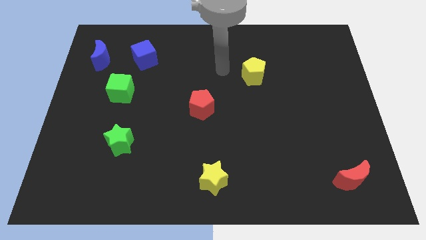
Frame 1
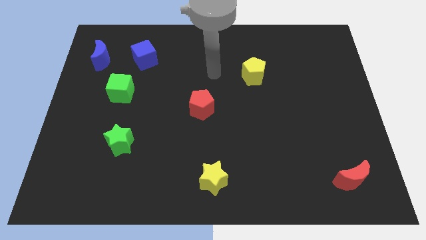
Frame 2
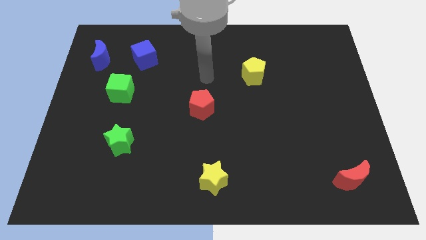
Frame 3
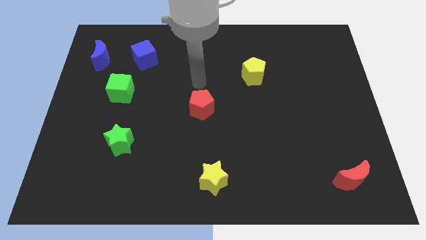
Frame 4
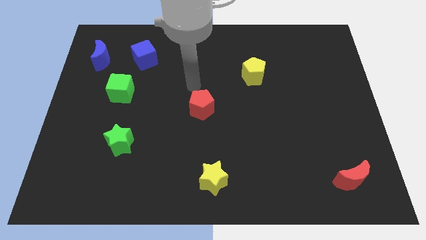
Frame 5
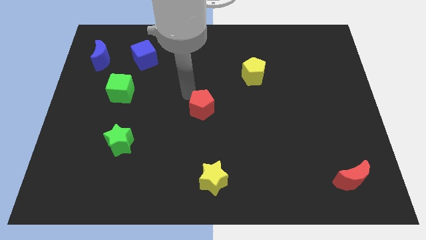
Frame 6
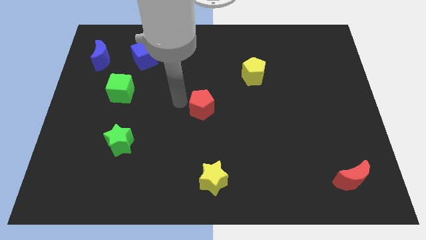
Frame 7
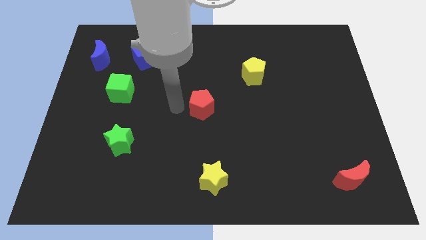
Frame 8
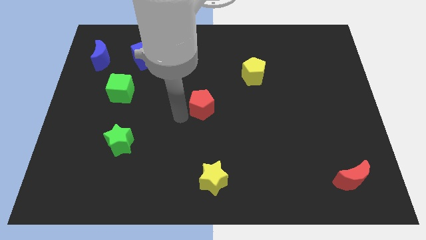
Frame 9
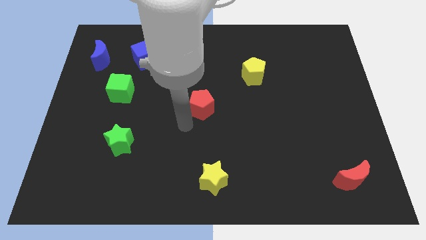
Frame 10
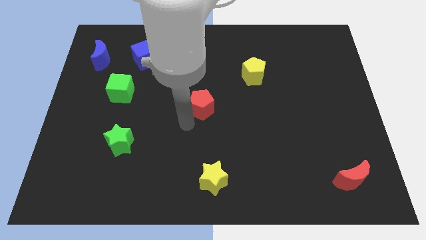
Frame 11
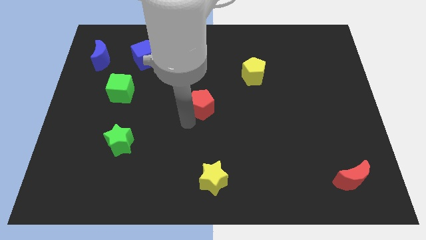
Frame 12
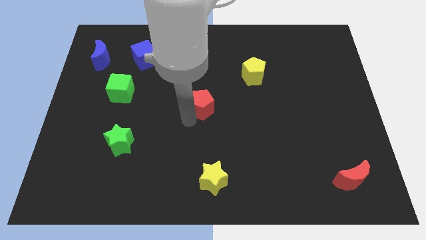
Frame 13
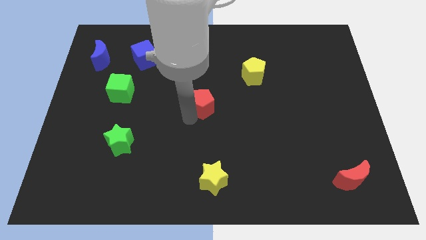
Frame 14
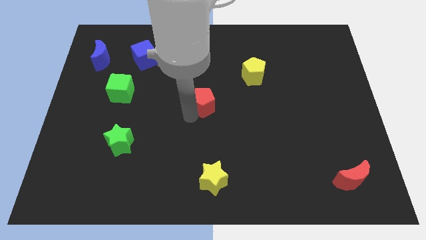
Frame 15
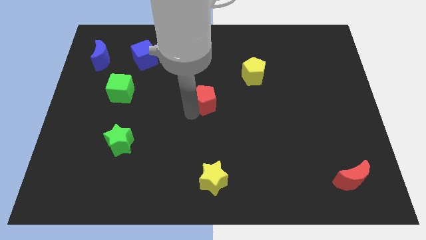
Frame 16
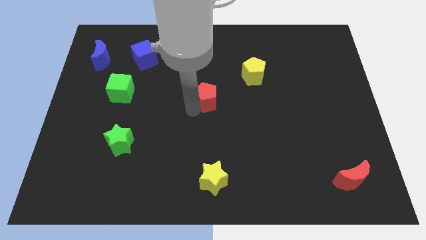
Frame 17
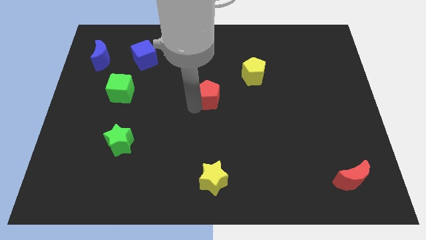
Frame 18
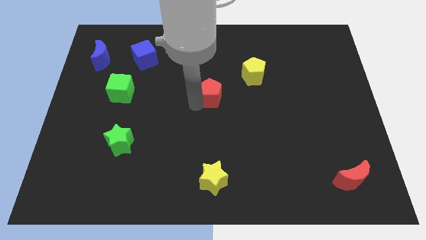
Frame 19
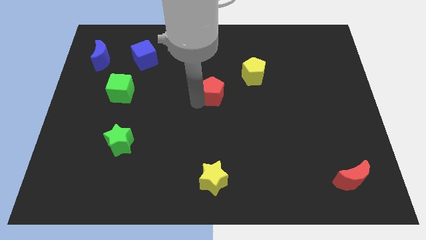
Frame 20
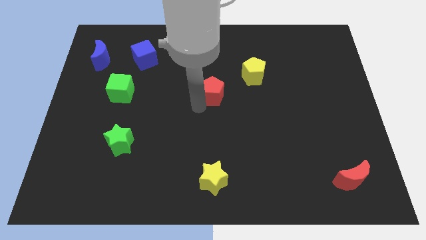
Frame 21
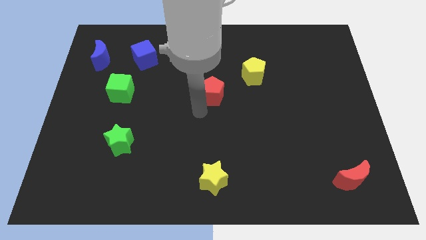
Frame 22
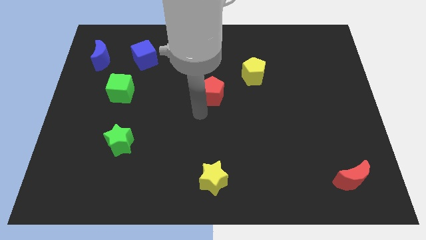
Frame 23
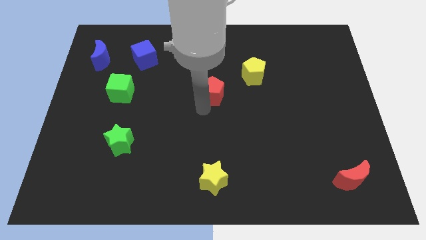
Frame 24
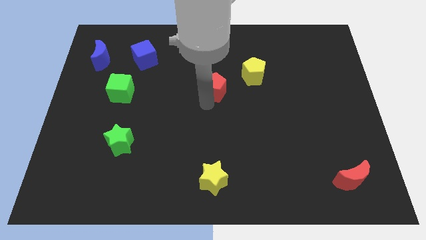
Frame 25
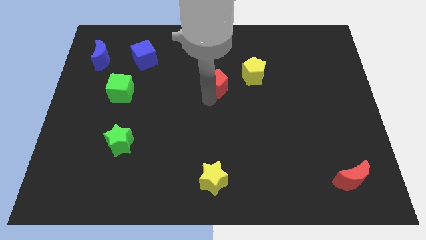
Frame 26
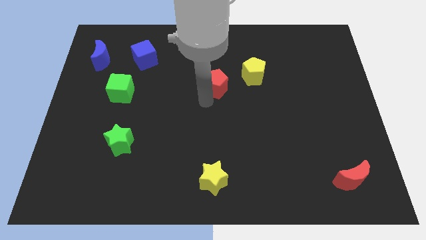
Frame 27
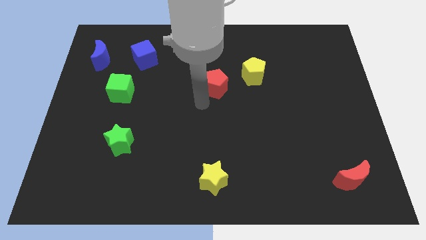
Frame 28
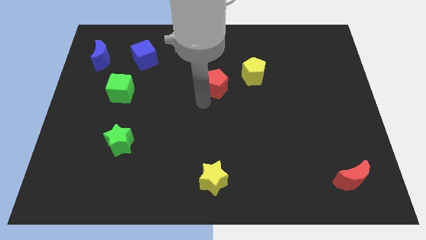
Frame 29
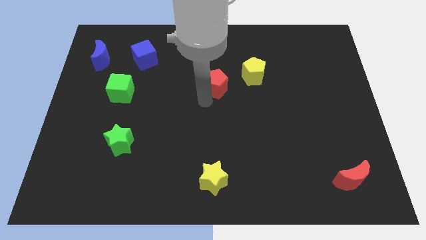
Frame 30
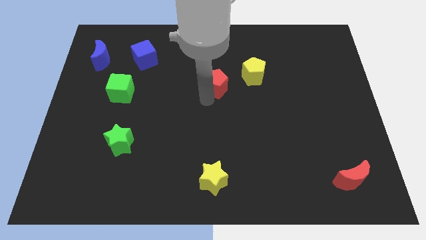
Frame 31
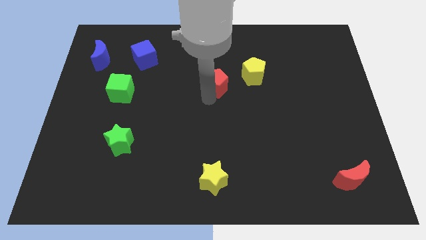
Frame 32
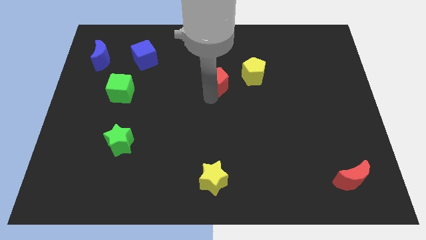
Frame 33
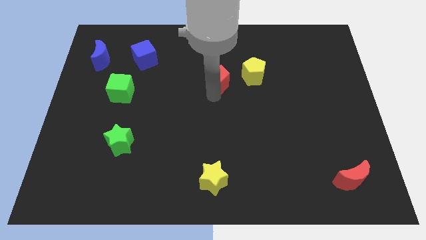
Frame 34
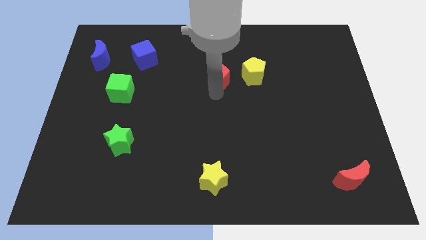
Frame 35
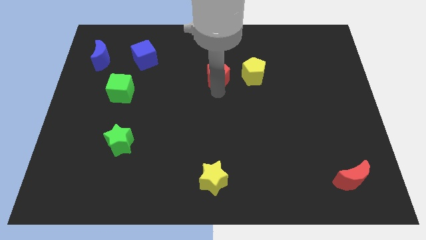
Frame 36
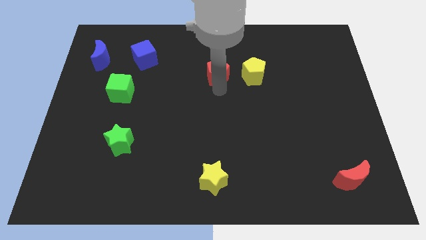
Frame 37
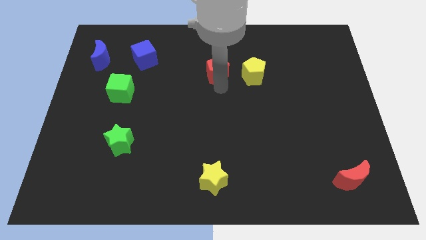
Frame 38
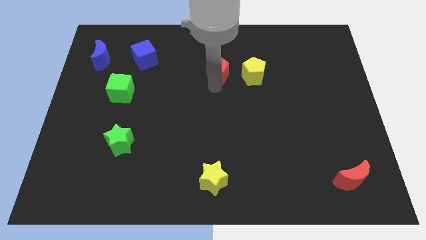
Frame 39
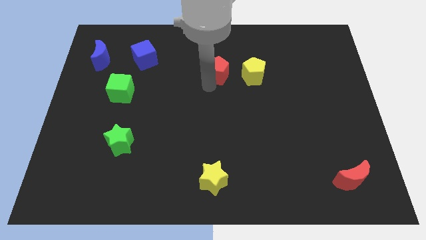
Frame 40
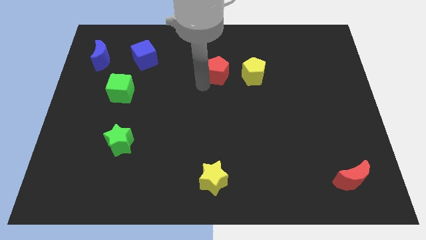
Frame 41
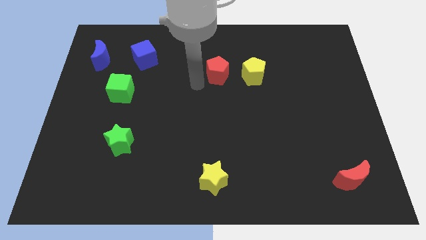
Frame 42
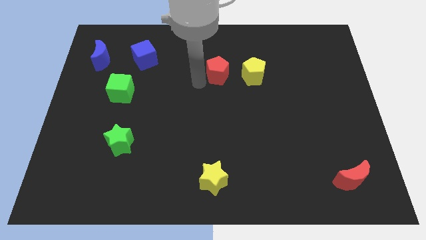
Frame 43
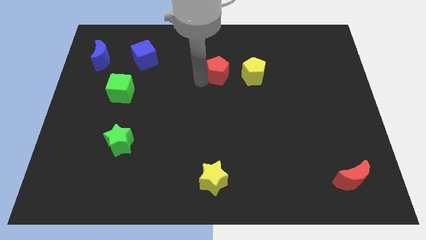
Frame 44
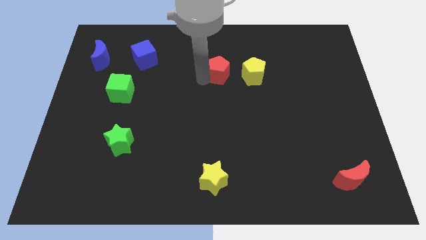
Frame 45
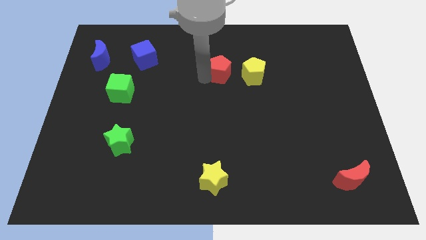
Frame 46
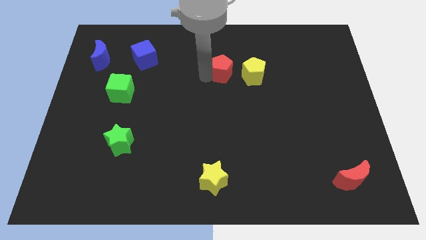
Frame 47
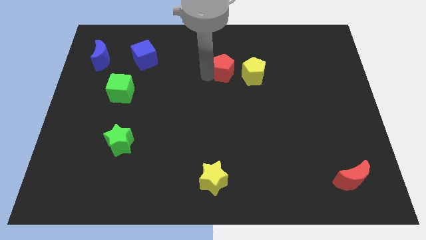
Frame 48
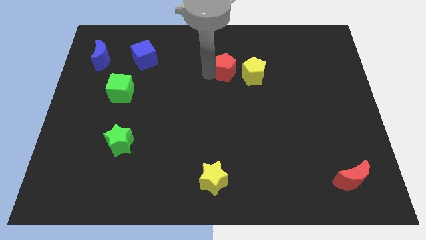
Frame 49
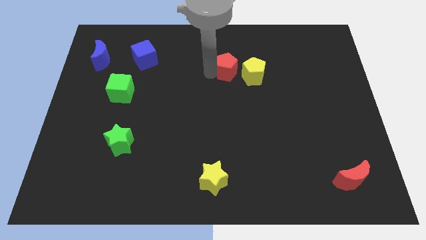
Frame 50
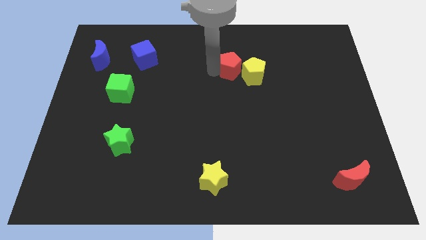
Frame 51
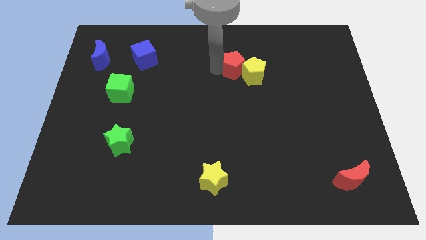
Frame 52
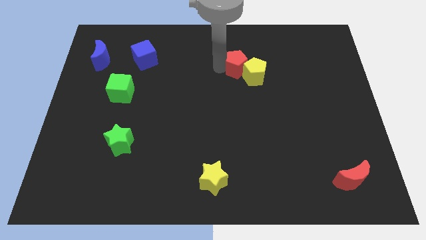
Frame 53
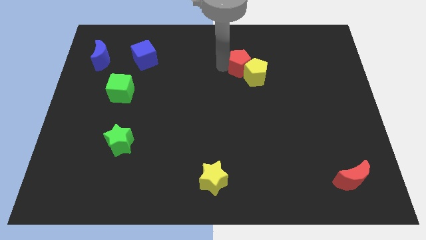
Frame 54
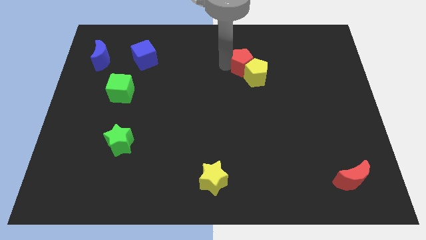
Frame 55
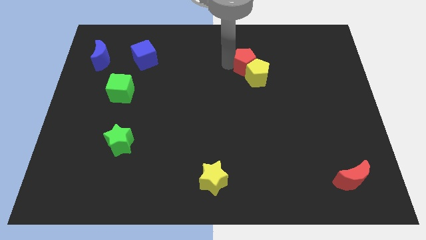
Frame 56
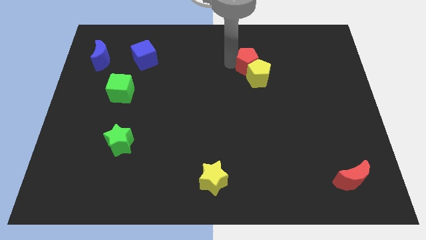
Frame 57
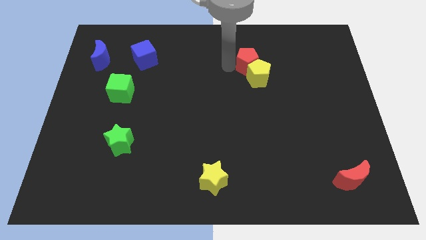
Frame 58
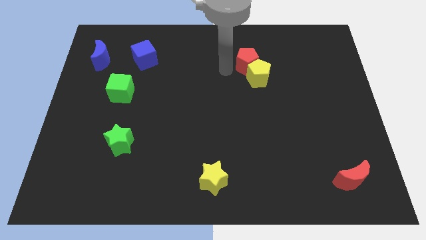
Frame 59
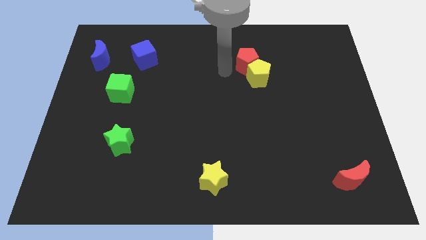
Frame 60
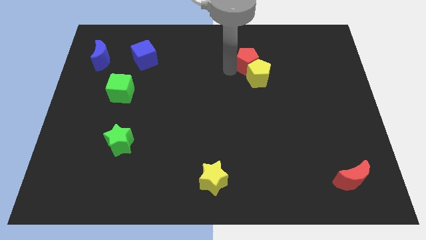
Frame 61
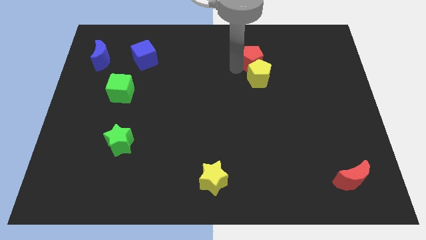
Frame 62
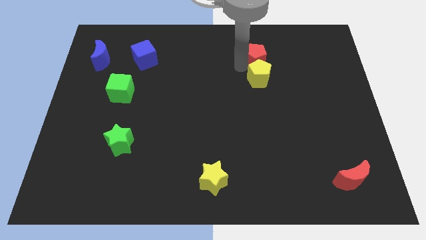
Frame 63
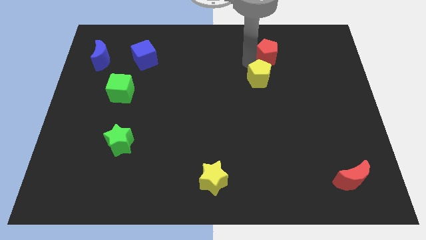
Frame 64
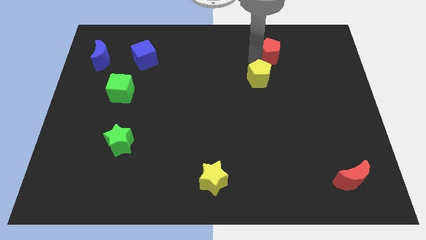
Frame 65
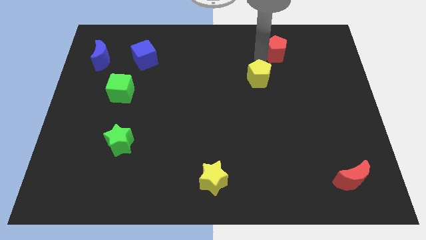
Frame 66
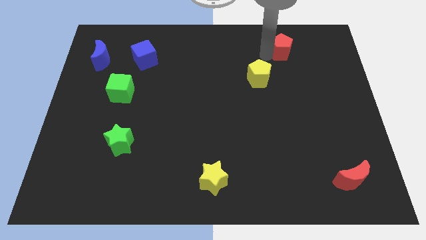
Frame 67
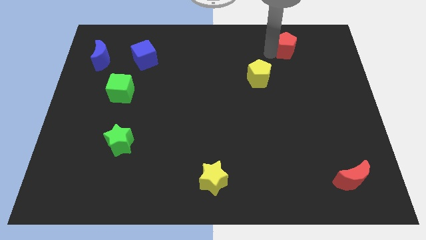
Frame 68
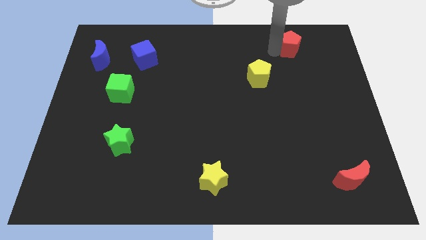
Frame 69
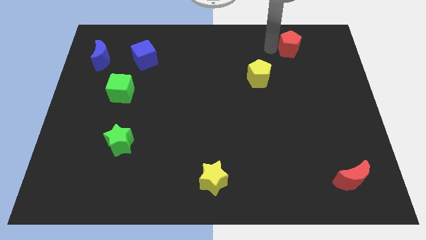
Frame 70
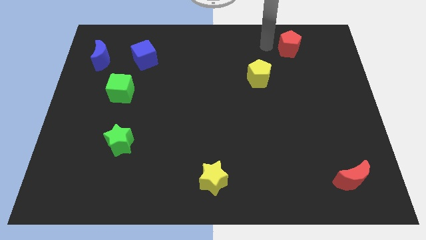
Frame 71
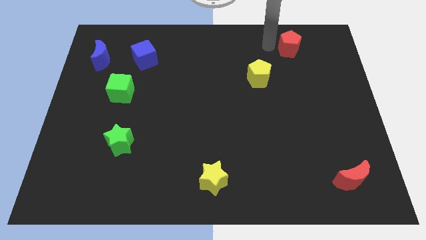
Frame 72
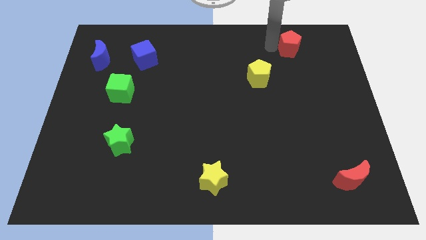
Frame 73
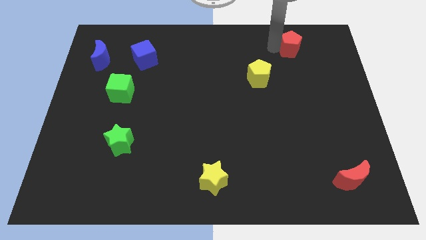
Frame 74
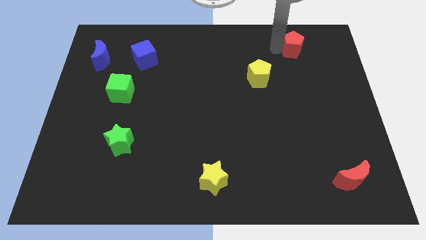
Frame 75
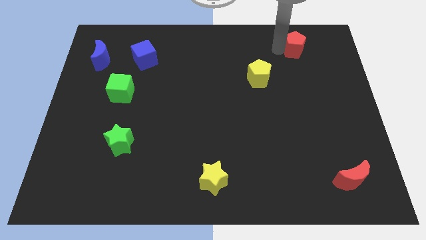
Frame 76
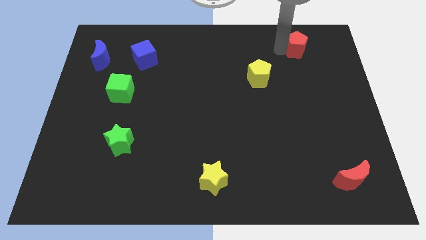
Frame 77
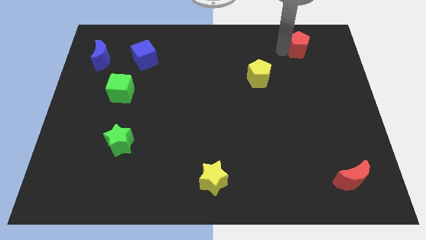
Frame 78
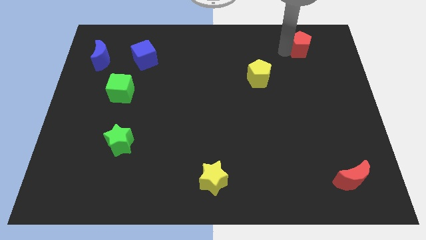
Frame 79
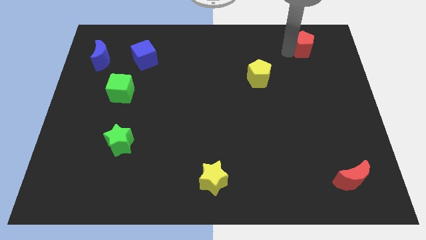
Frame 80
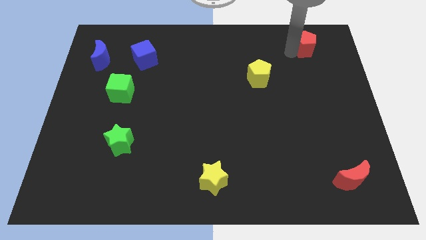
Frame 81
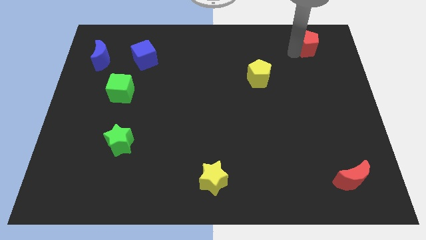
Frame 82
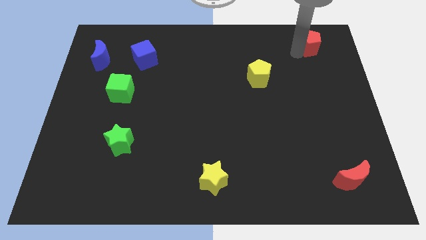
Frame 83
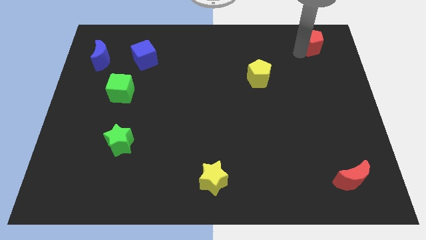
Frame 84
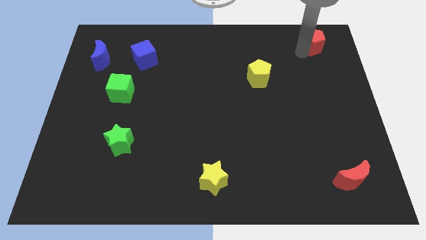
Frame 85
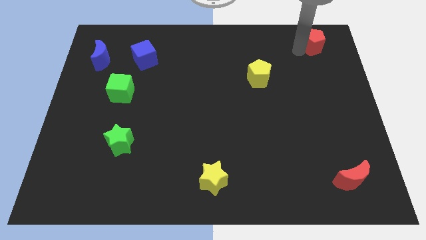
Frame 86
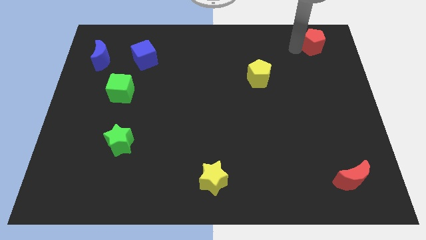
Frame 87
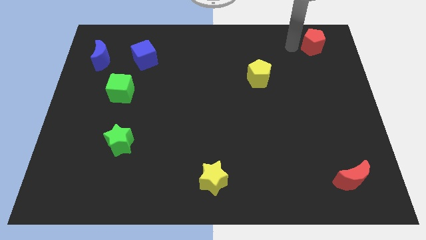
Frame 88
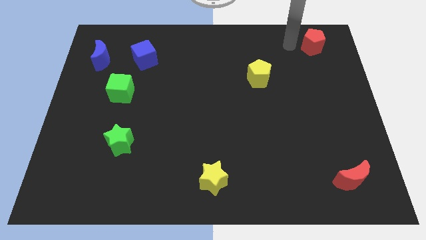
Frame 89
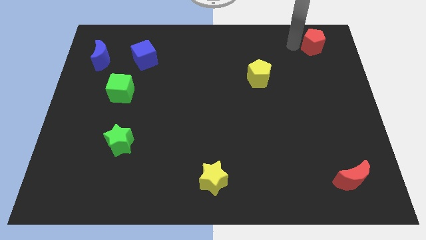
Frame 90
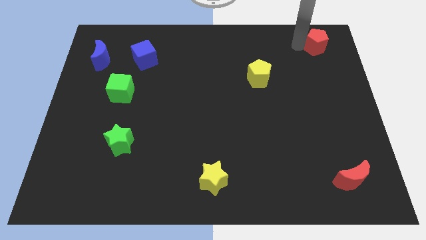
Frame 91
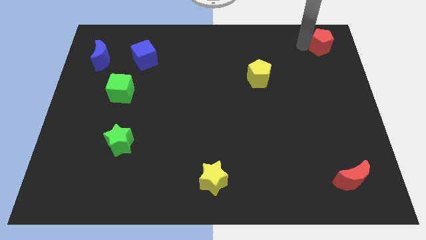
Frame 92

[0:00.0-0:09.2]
put the red pentagon to the upper right corner
